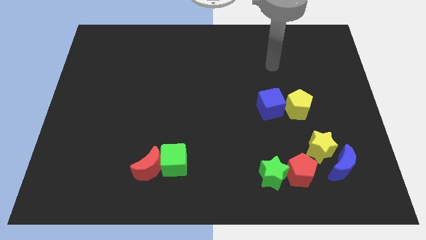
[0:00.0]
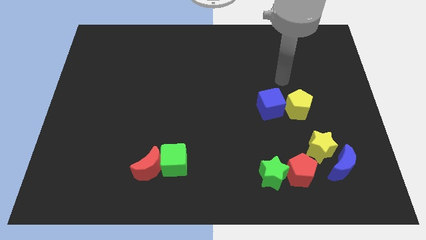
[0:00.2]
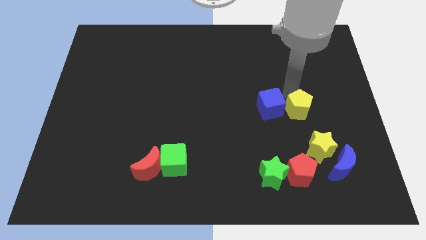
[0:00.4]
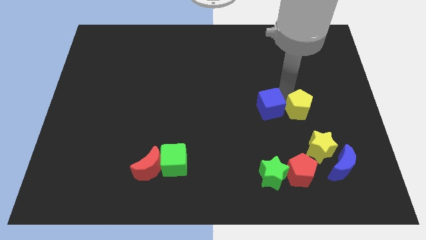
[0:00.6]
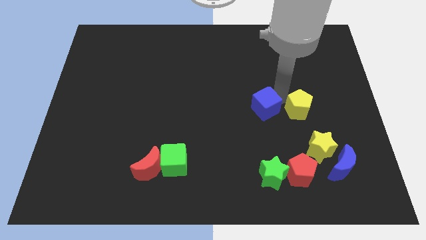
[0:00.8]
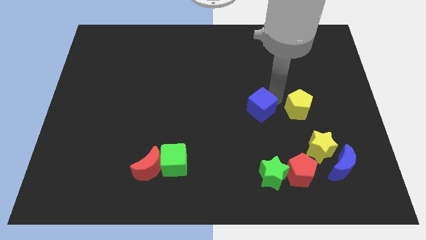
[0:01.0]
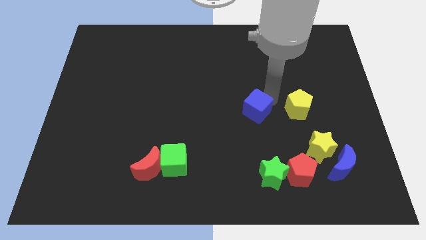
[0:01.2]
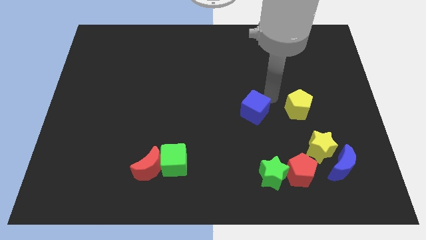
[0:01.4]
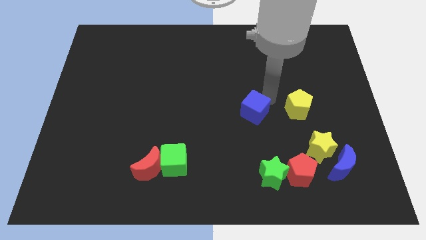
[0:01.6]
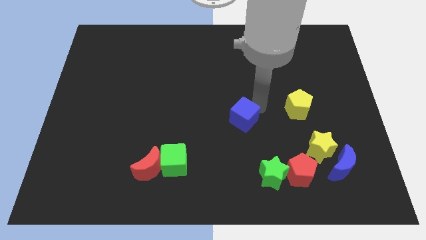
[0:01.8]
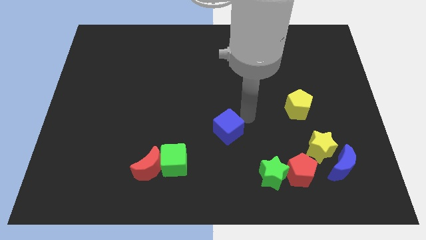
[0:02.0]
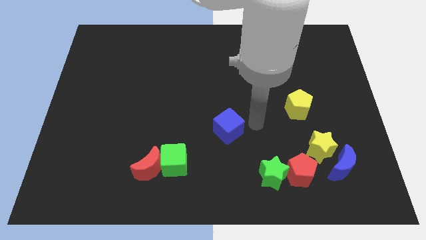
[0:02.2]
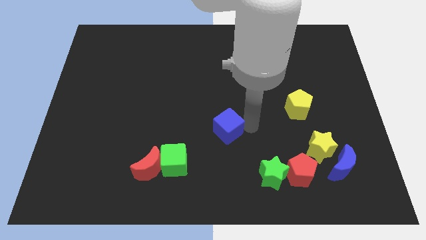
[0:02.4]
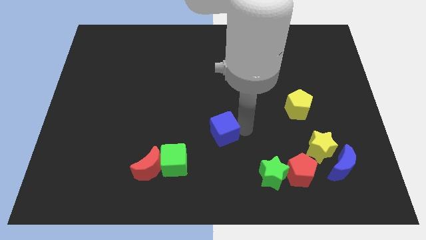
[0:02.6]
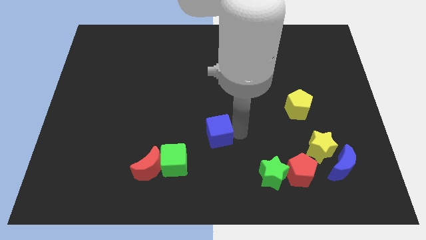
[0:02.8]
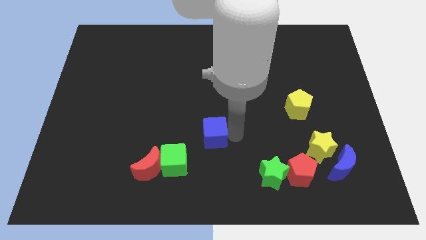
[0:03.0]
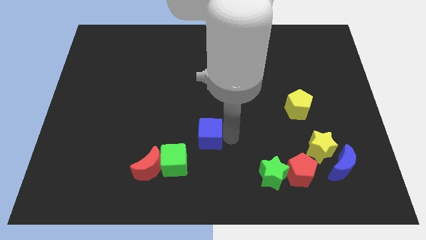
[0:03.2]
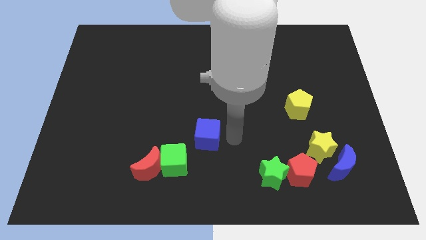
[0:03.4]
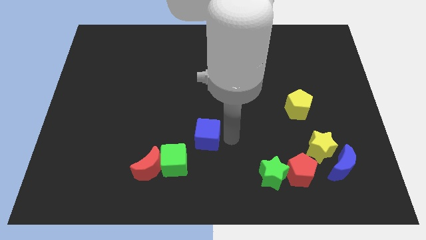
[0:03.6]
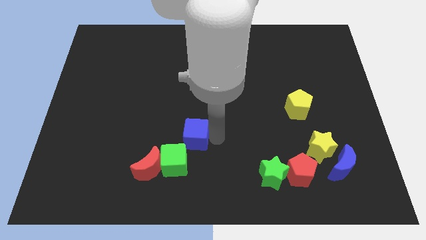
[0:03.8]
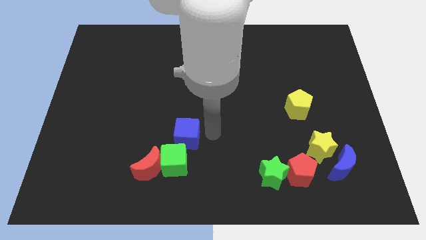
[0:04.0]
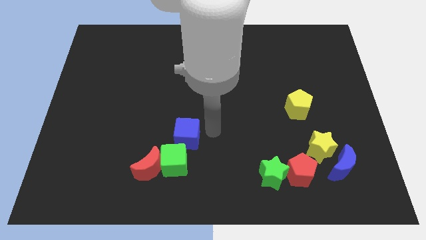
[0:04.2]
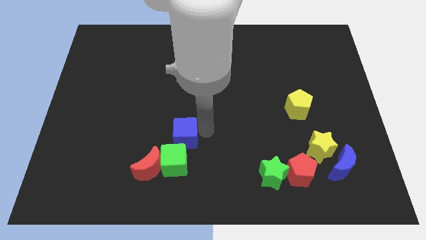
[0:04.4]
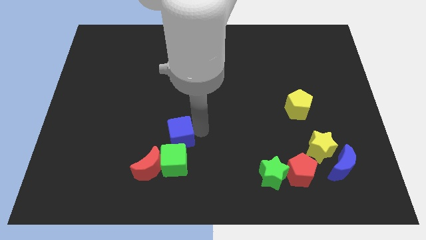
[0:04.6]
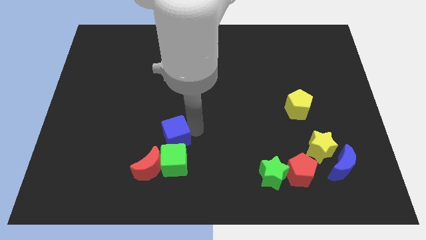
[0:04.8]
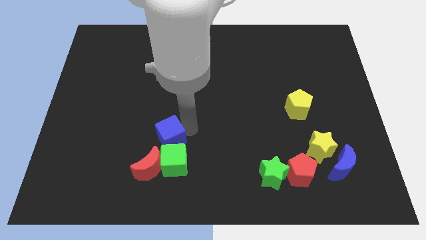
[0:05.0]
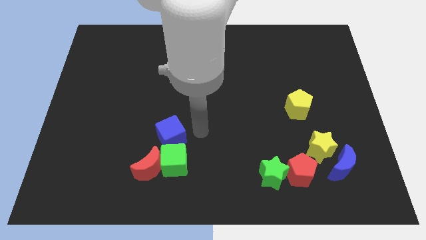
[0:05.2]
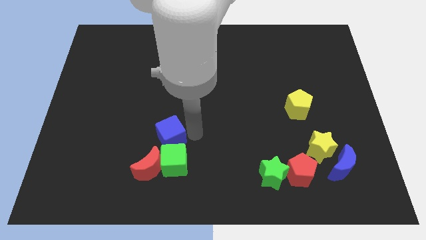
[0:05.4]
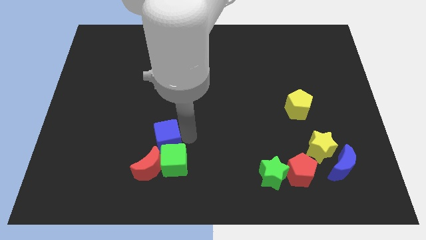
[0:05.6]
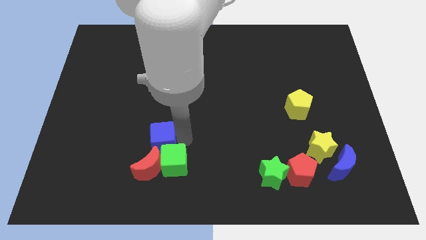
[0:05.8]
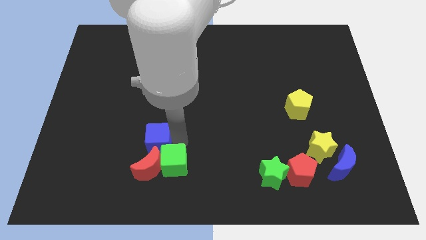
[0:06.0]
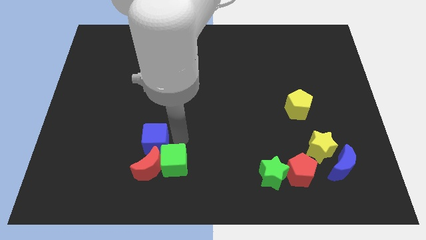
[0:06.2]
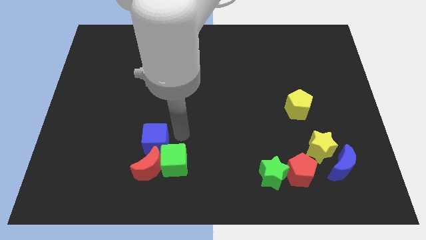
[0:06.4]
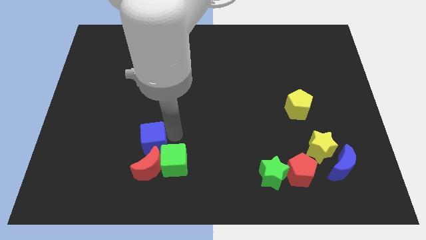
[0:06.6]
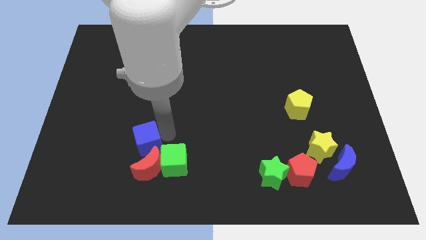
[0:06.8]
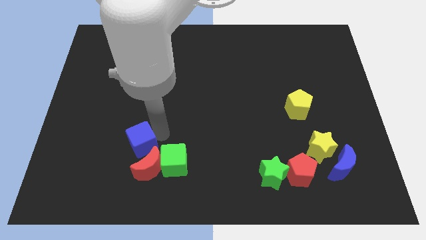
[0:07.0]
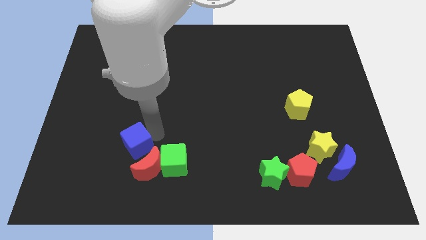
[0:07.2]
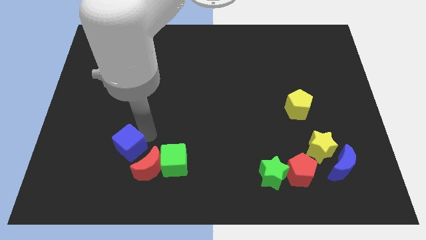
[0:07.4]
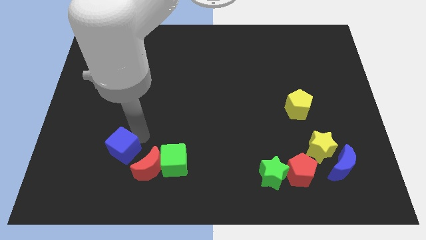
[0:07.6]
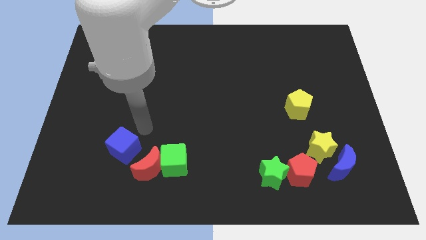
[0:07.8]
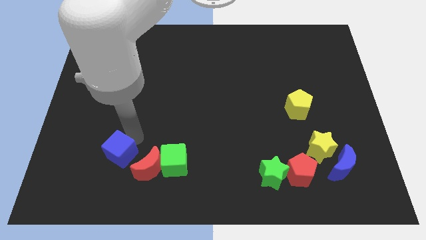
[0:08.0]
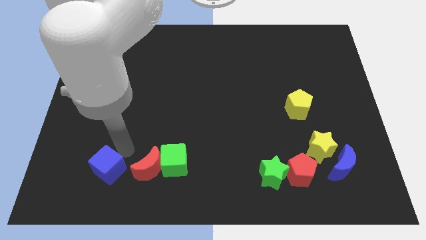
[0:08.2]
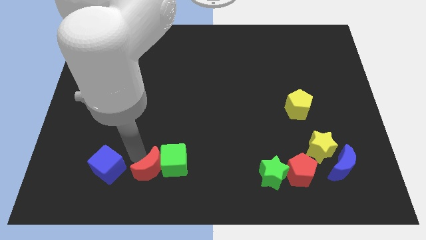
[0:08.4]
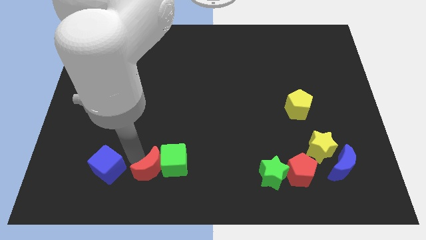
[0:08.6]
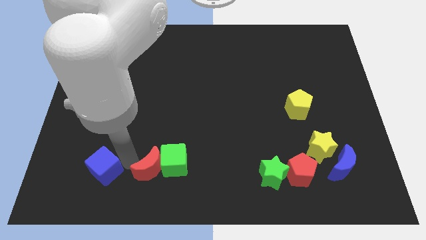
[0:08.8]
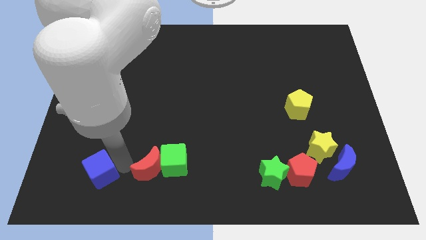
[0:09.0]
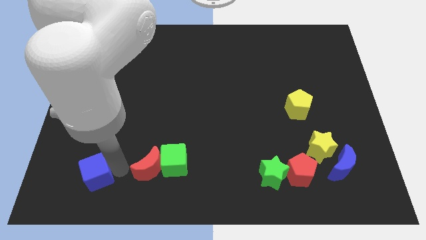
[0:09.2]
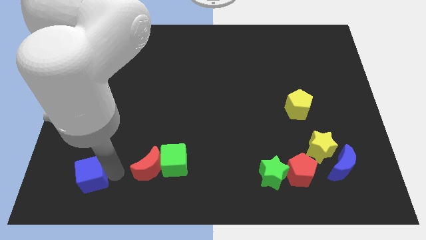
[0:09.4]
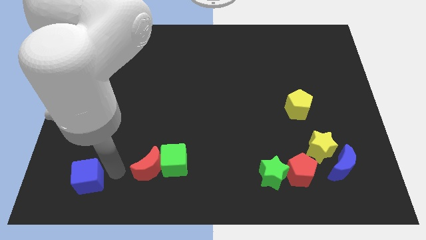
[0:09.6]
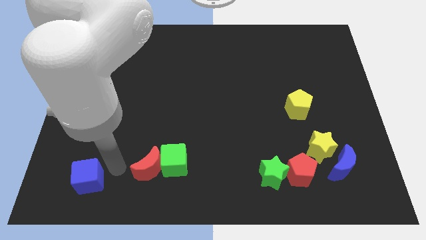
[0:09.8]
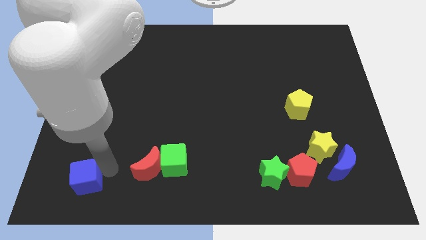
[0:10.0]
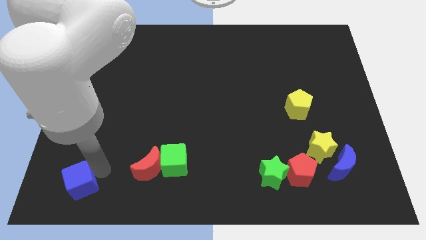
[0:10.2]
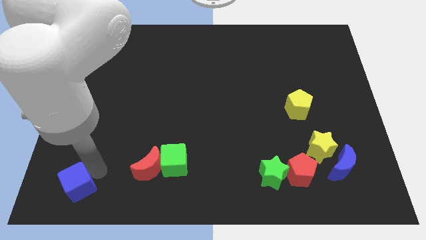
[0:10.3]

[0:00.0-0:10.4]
move the blue cube to the lower left corner

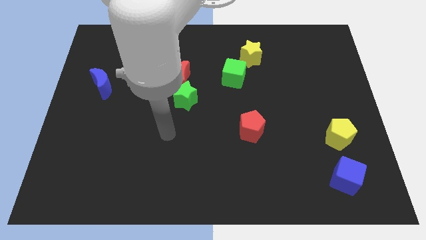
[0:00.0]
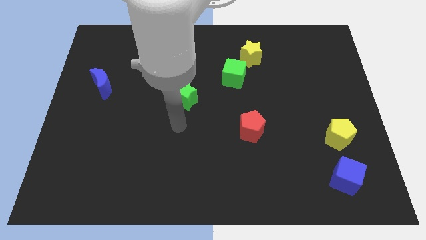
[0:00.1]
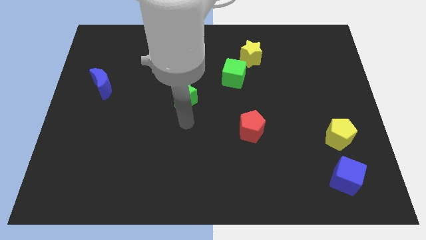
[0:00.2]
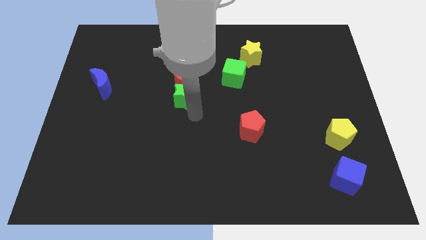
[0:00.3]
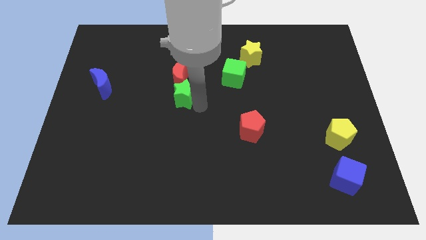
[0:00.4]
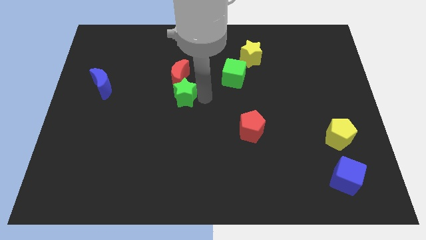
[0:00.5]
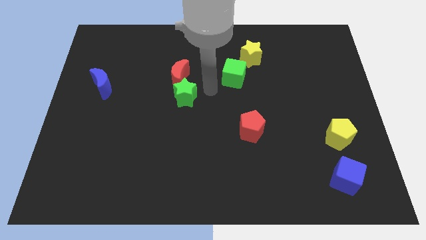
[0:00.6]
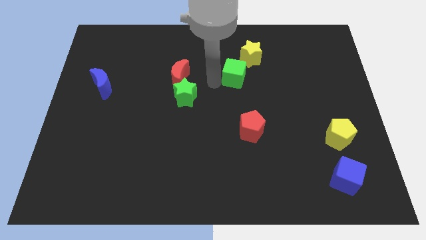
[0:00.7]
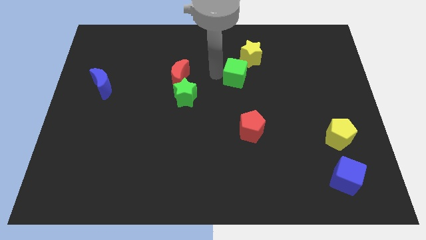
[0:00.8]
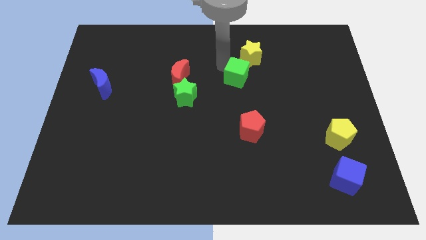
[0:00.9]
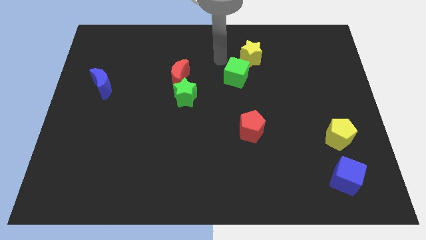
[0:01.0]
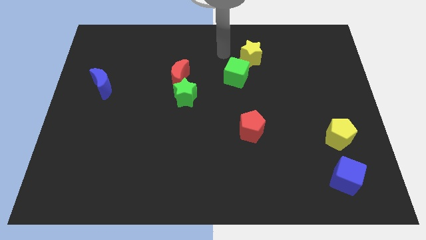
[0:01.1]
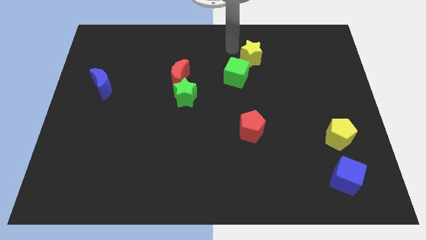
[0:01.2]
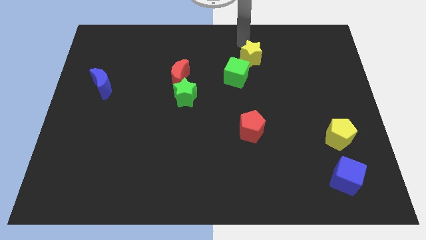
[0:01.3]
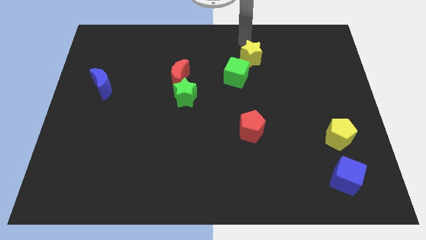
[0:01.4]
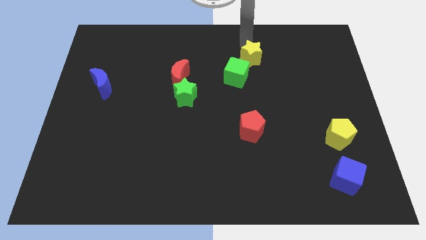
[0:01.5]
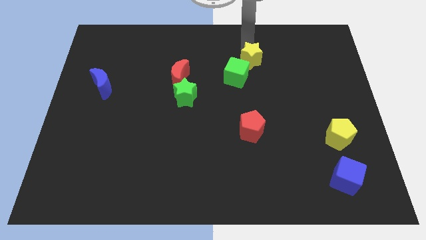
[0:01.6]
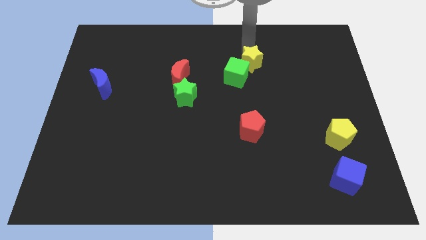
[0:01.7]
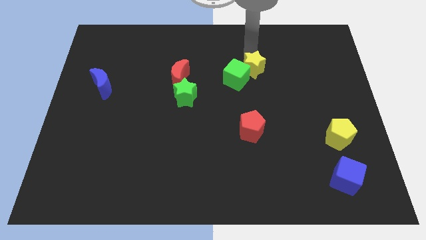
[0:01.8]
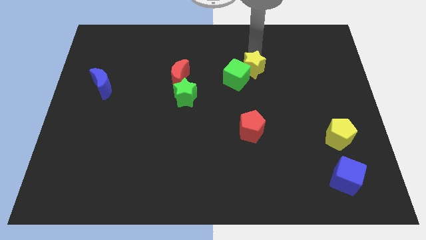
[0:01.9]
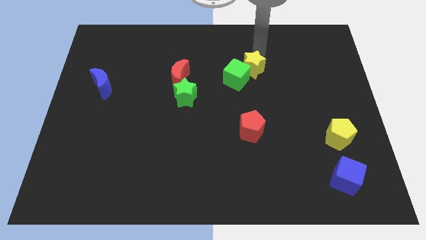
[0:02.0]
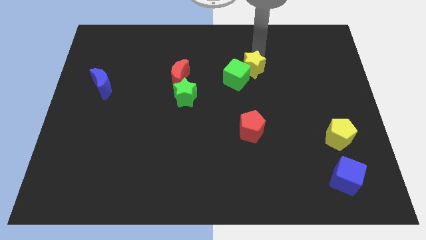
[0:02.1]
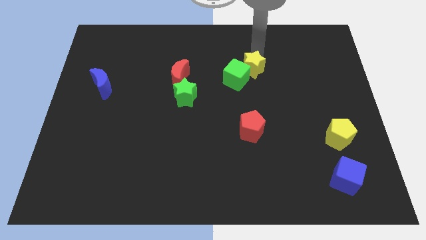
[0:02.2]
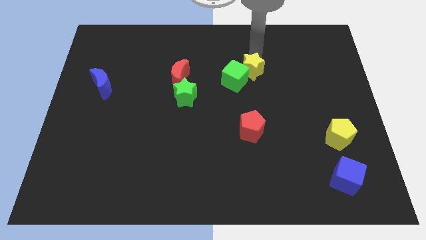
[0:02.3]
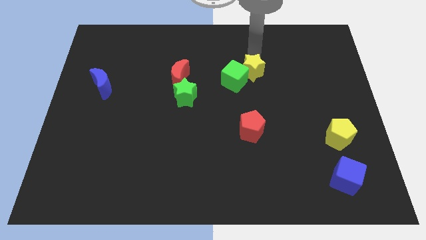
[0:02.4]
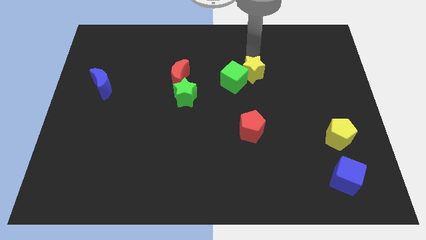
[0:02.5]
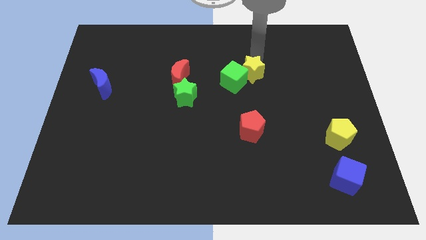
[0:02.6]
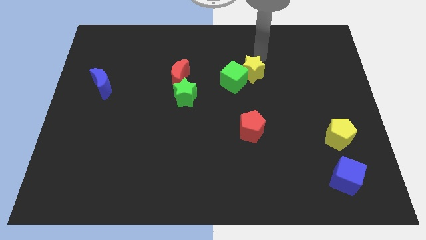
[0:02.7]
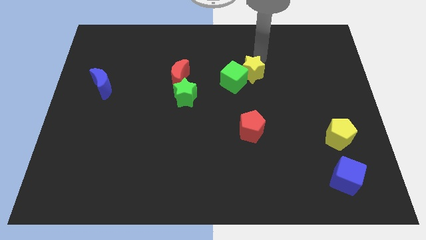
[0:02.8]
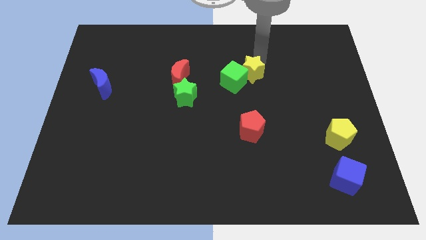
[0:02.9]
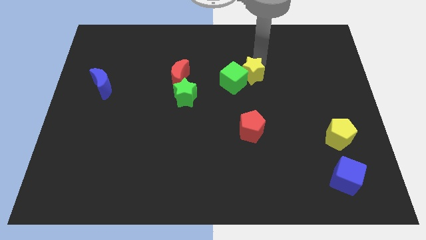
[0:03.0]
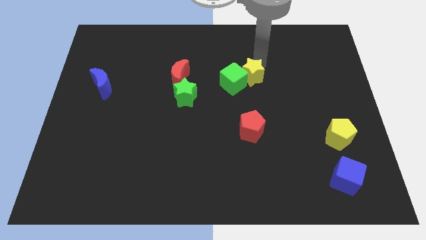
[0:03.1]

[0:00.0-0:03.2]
slide the yellow star to the center of the board
